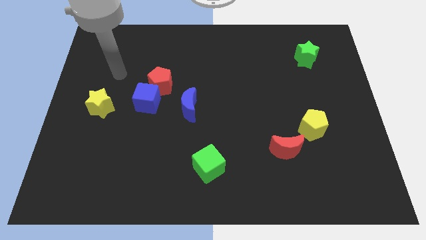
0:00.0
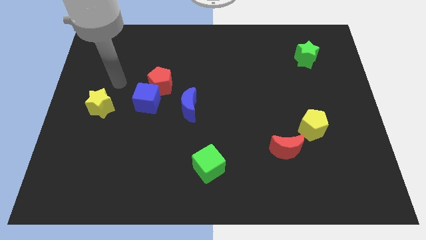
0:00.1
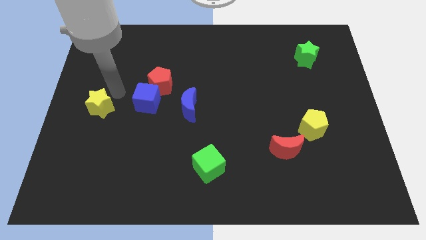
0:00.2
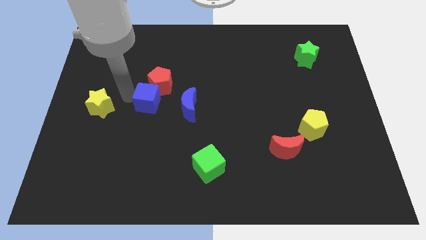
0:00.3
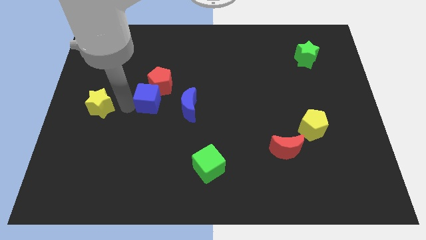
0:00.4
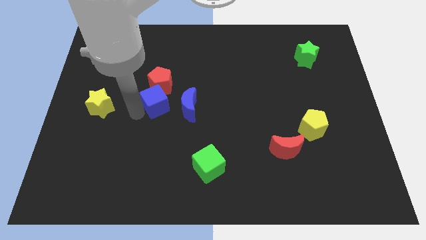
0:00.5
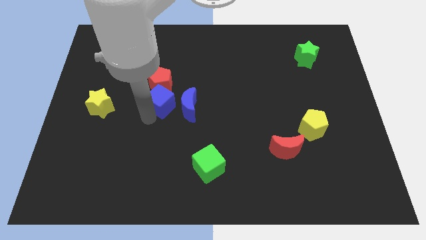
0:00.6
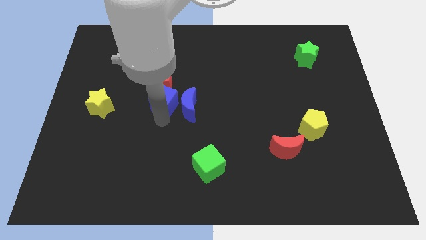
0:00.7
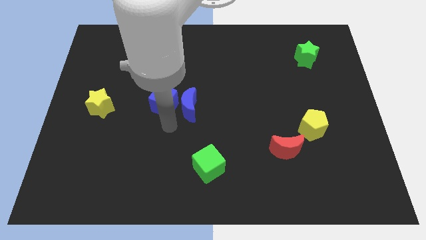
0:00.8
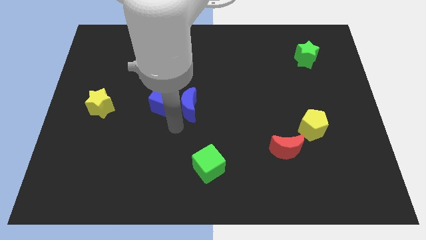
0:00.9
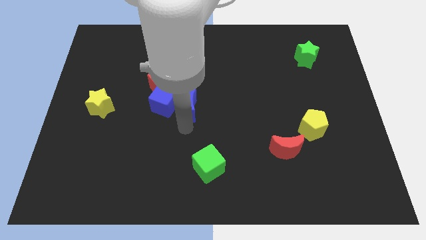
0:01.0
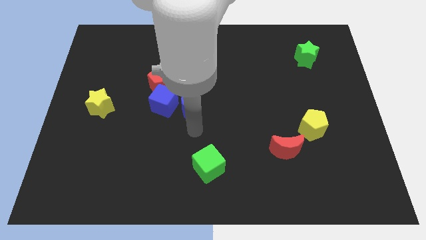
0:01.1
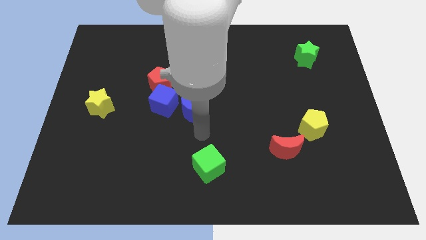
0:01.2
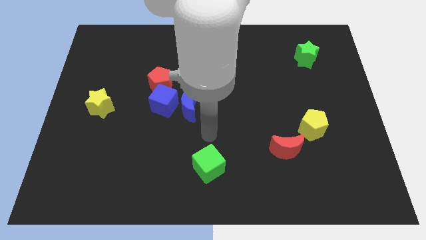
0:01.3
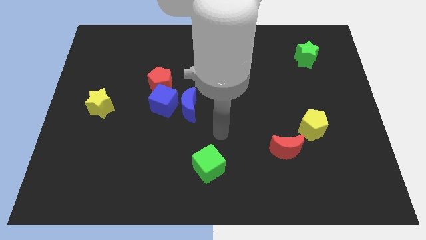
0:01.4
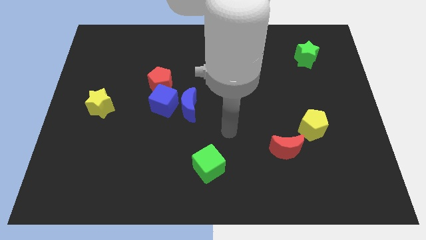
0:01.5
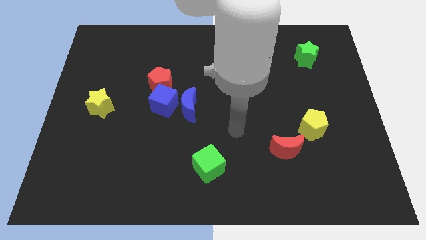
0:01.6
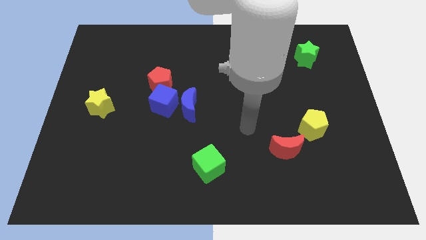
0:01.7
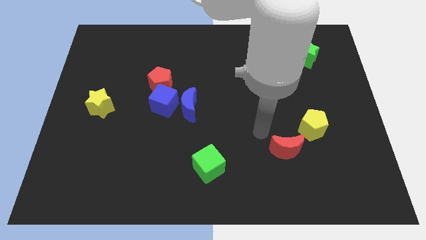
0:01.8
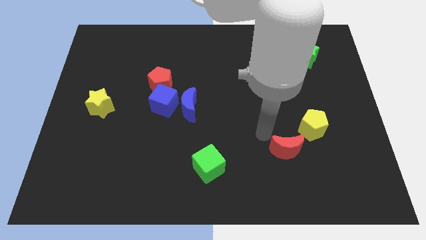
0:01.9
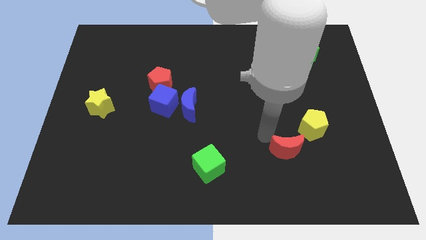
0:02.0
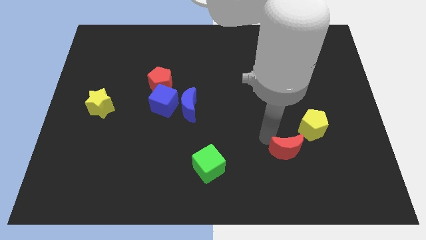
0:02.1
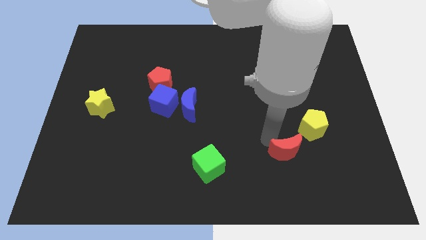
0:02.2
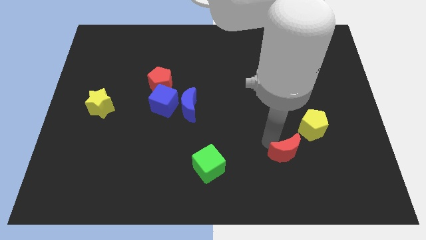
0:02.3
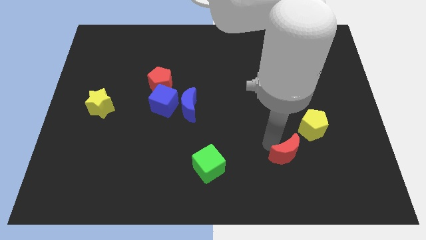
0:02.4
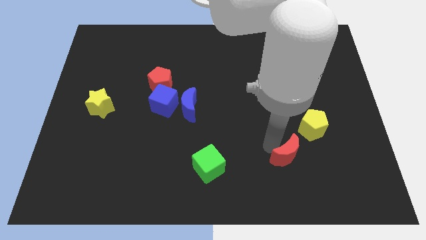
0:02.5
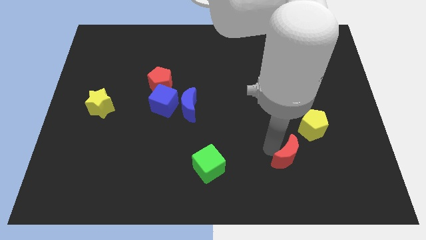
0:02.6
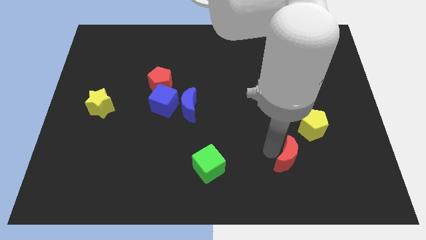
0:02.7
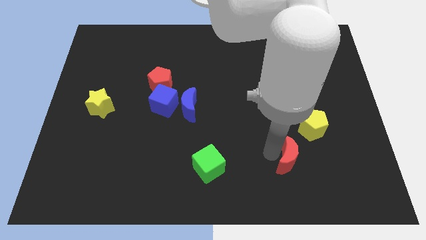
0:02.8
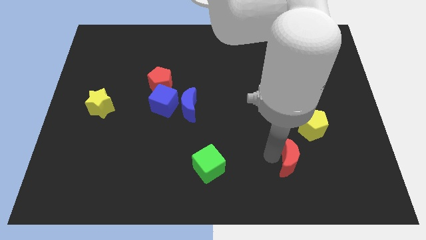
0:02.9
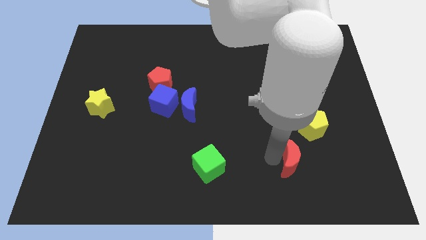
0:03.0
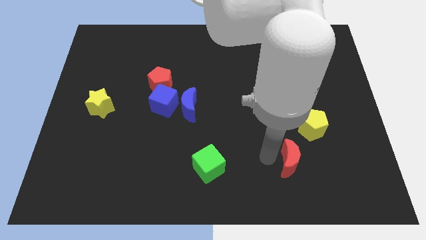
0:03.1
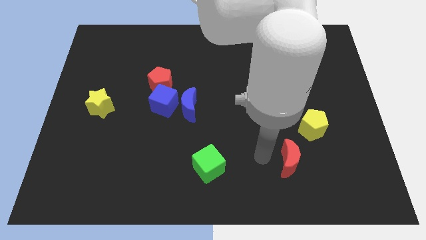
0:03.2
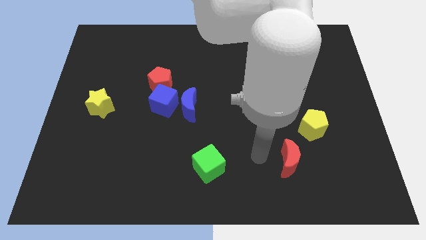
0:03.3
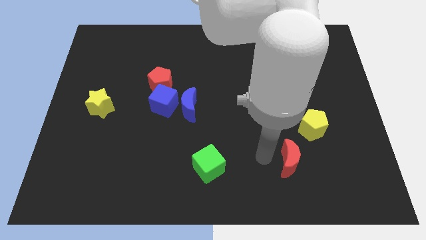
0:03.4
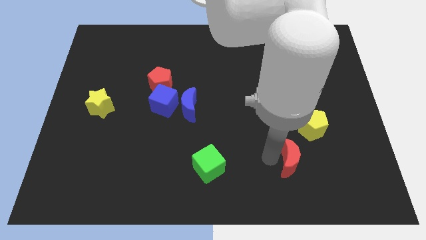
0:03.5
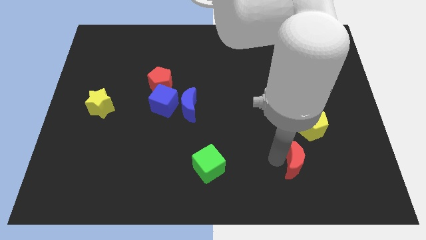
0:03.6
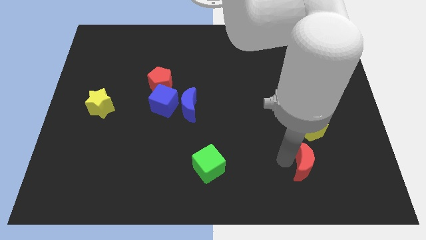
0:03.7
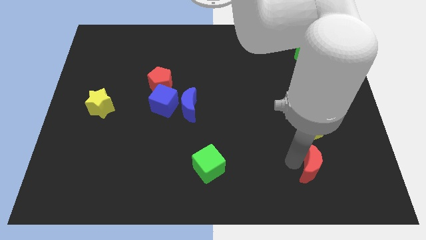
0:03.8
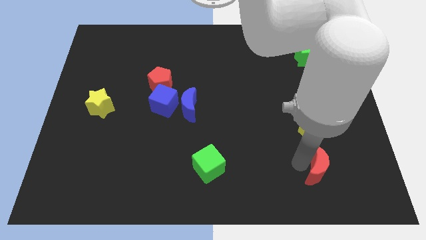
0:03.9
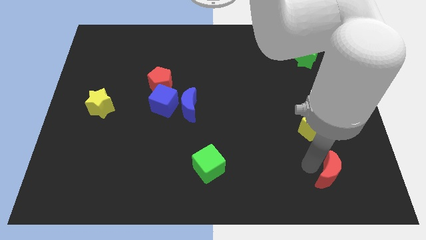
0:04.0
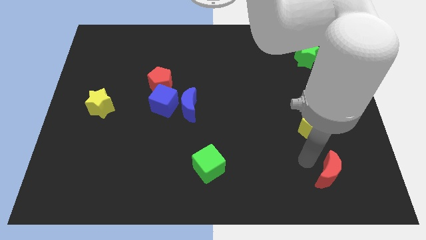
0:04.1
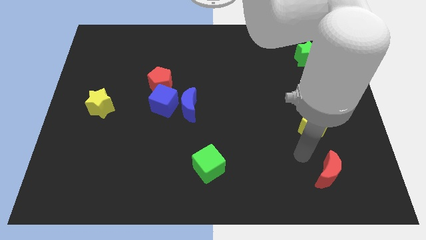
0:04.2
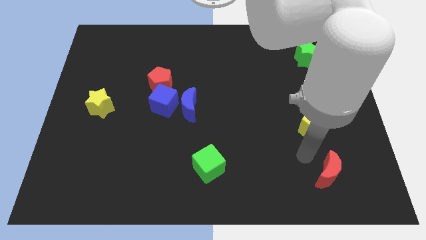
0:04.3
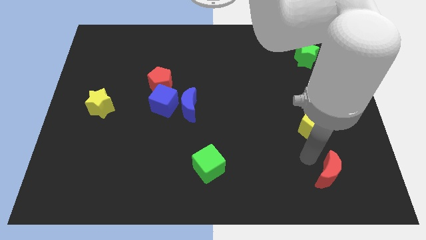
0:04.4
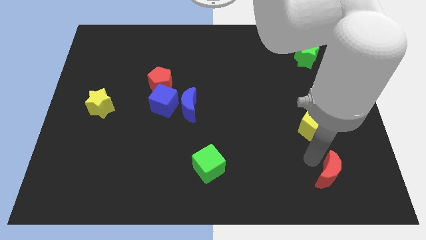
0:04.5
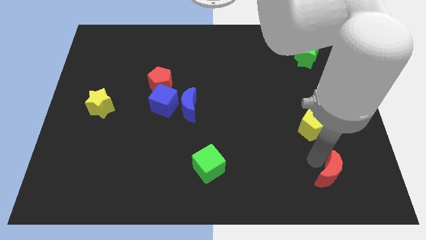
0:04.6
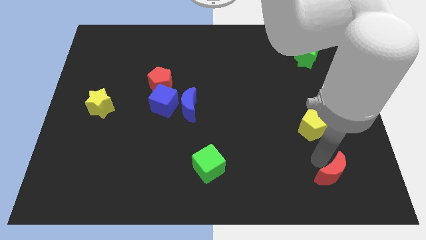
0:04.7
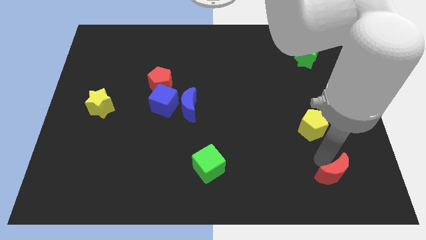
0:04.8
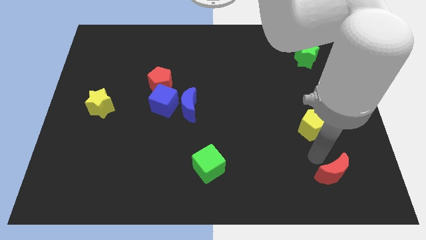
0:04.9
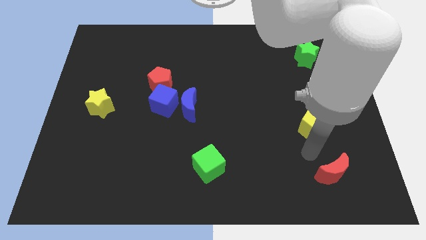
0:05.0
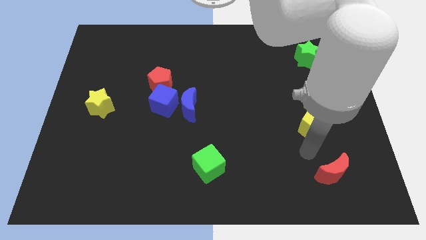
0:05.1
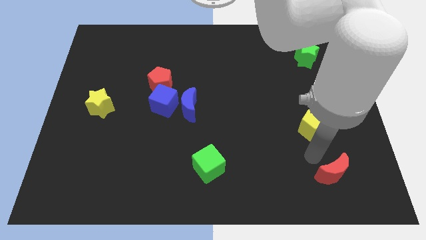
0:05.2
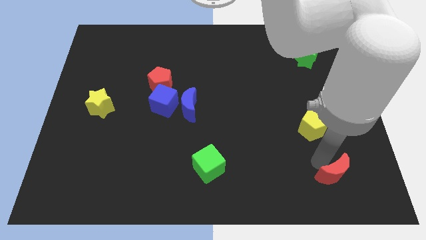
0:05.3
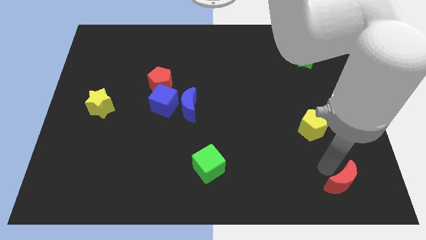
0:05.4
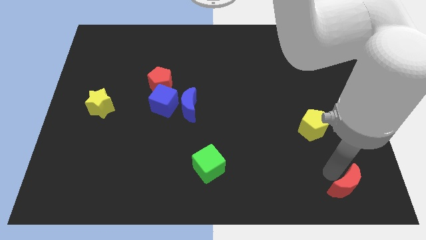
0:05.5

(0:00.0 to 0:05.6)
move the red moon to the bottom right corner

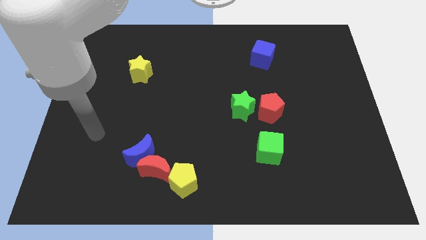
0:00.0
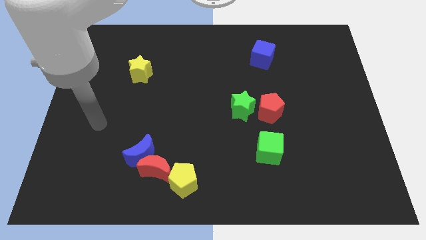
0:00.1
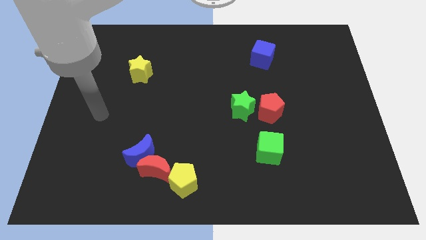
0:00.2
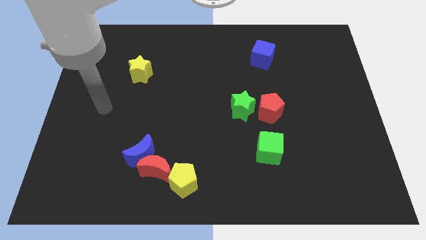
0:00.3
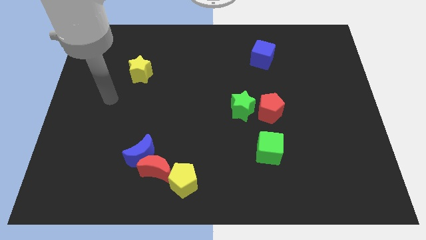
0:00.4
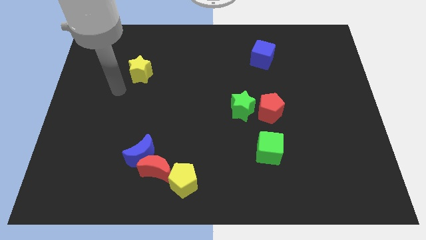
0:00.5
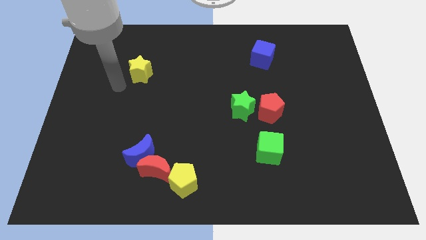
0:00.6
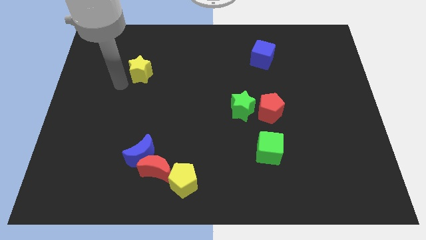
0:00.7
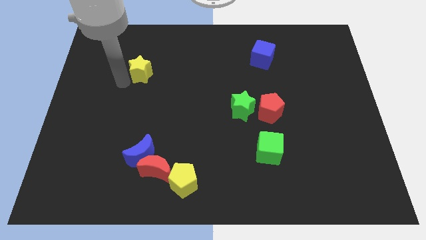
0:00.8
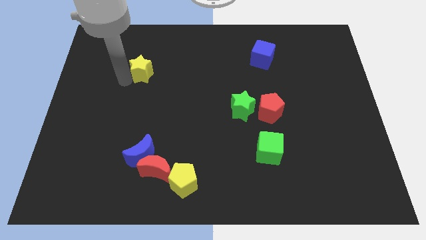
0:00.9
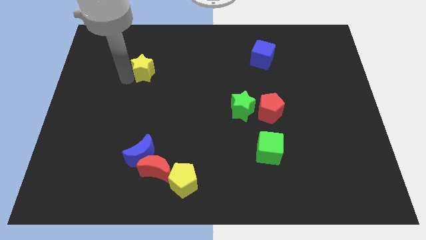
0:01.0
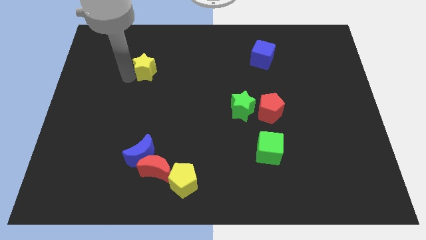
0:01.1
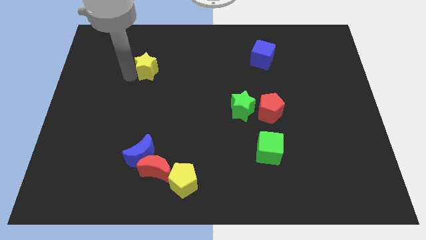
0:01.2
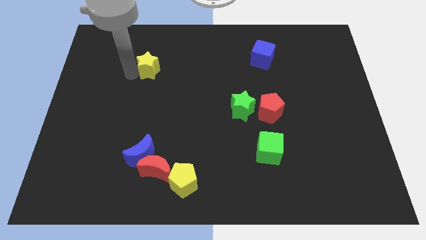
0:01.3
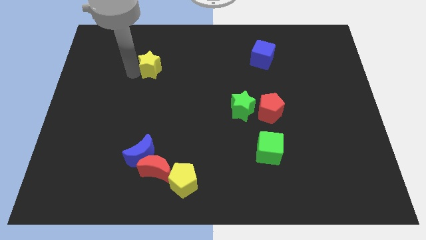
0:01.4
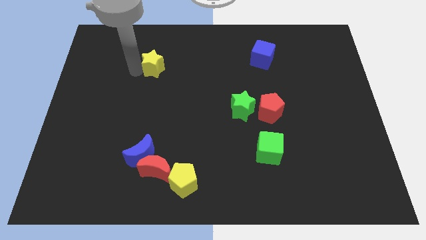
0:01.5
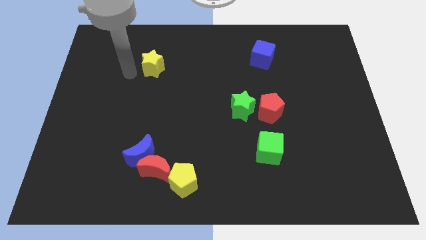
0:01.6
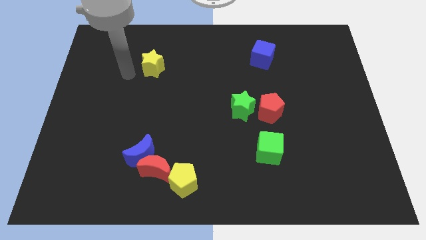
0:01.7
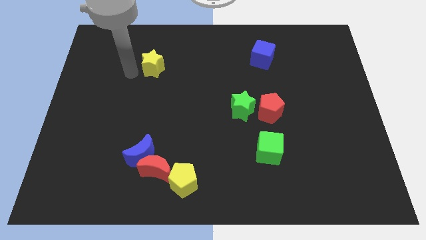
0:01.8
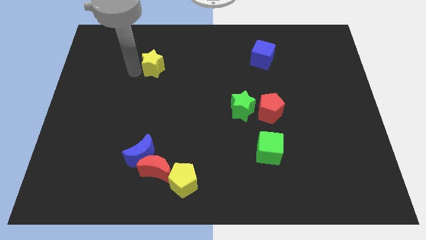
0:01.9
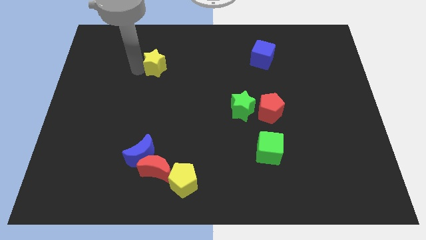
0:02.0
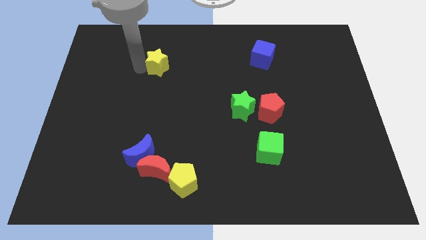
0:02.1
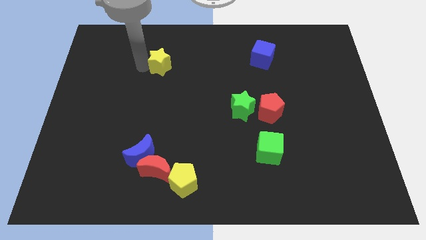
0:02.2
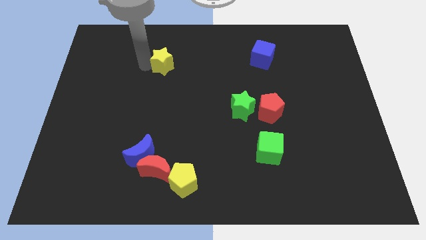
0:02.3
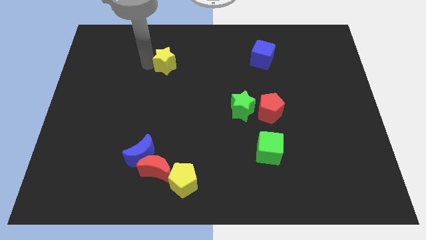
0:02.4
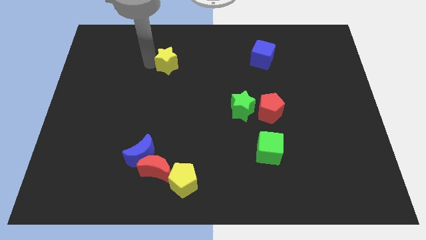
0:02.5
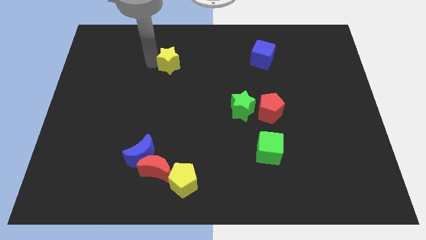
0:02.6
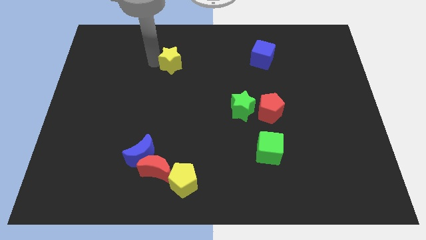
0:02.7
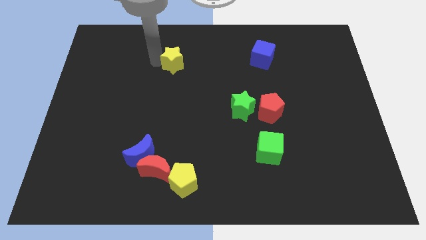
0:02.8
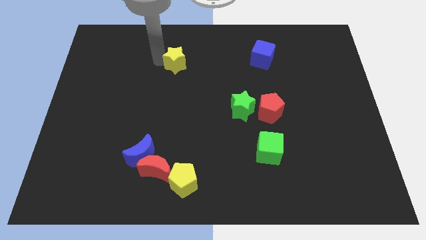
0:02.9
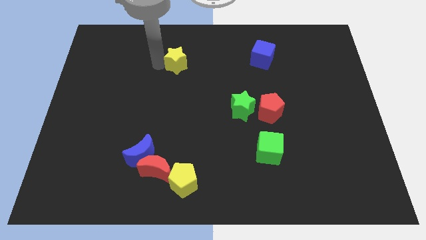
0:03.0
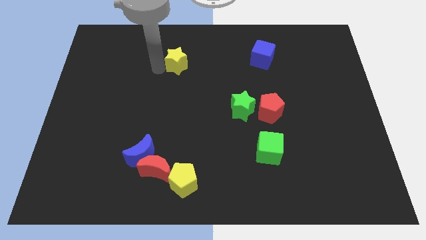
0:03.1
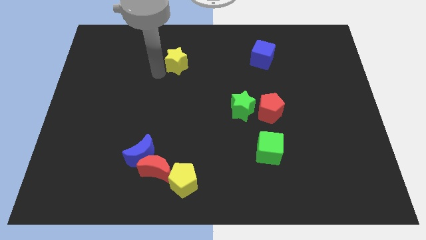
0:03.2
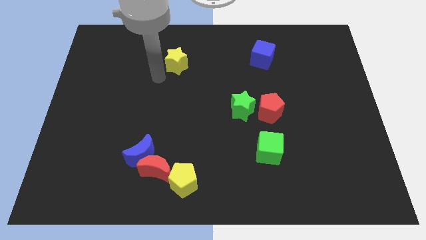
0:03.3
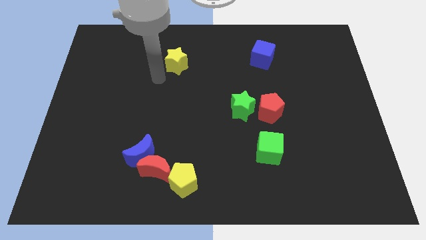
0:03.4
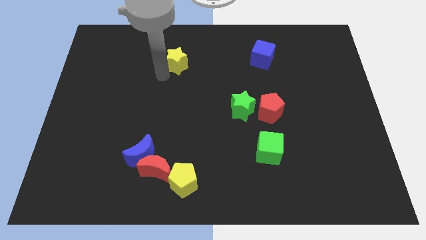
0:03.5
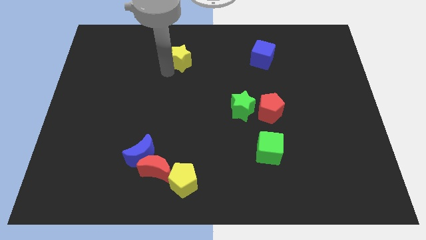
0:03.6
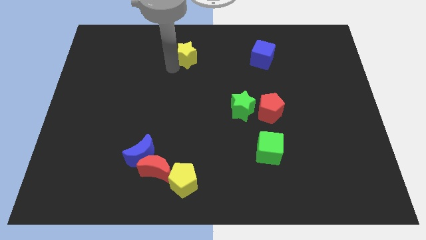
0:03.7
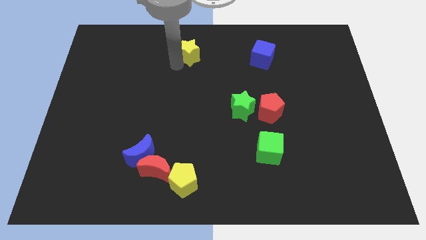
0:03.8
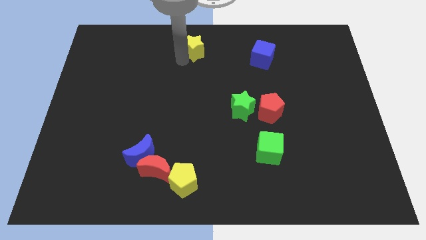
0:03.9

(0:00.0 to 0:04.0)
slide the yellow star to the top side
